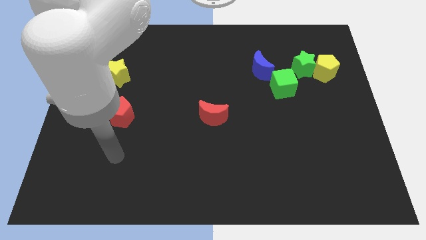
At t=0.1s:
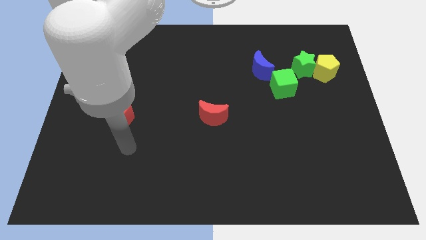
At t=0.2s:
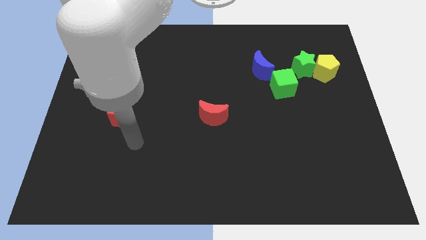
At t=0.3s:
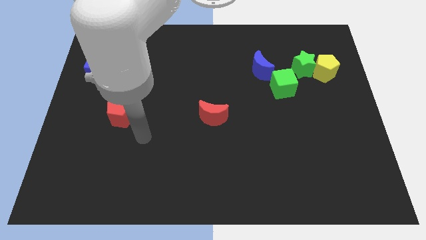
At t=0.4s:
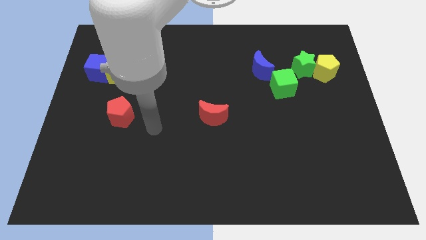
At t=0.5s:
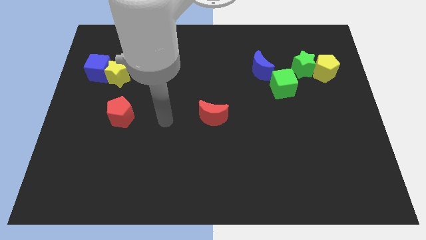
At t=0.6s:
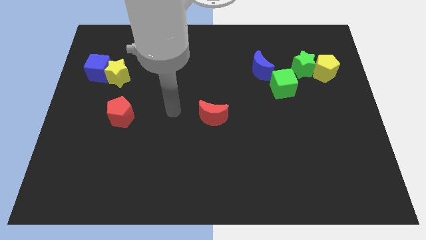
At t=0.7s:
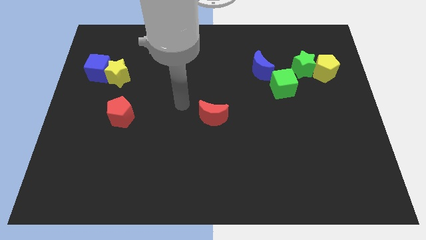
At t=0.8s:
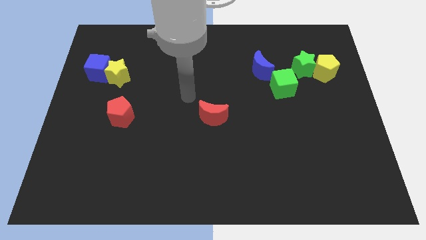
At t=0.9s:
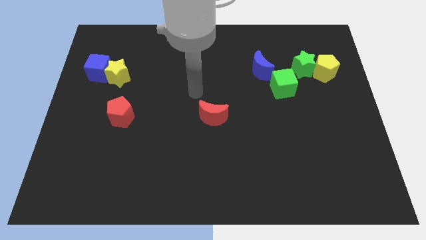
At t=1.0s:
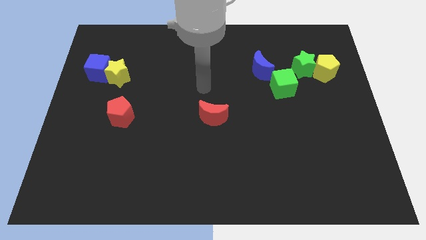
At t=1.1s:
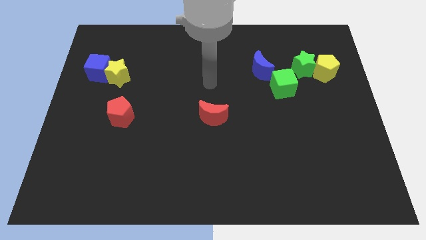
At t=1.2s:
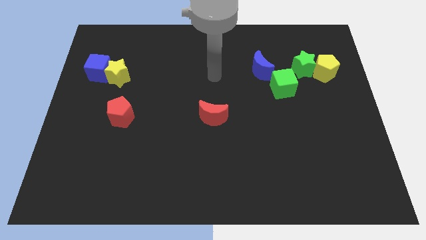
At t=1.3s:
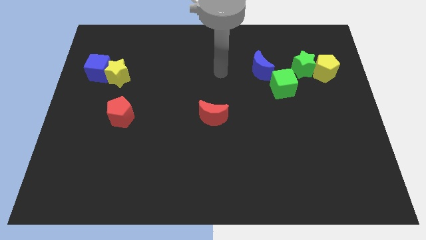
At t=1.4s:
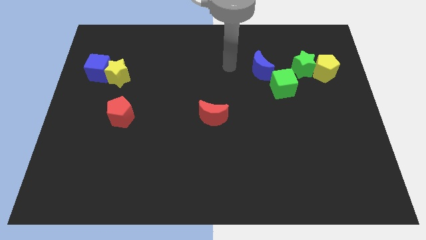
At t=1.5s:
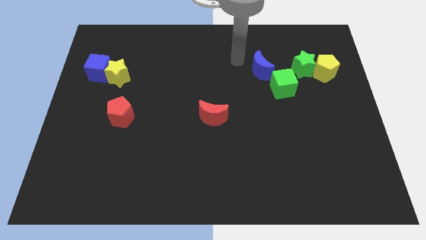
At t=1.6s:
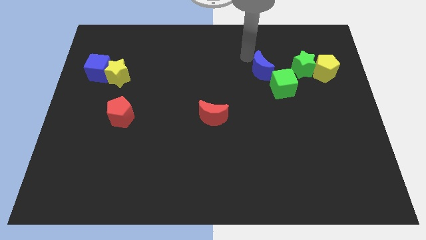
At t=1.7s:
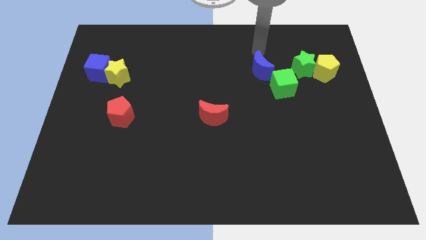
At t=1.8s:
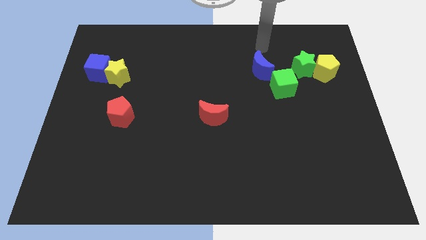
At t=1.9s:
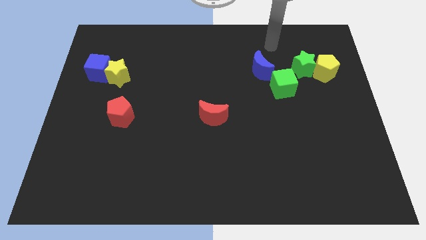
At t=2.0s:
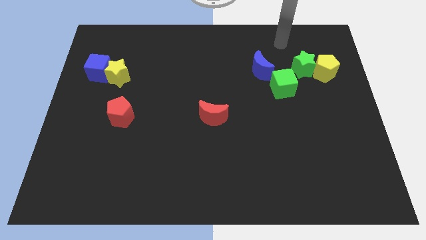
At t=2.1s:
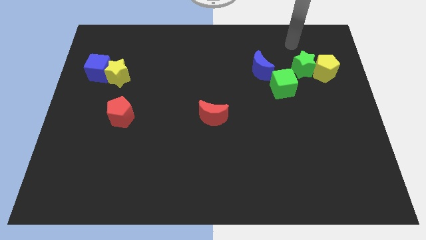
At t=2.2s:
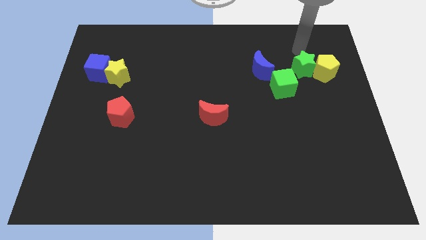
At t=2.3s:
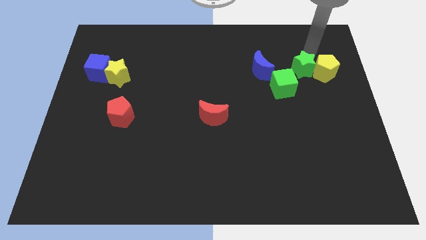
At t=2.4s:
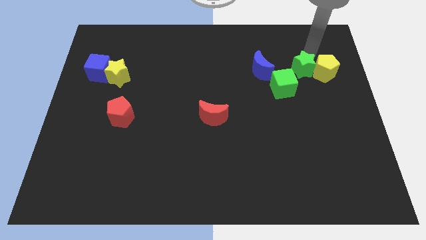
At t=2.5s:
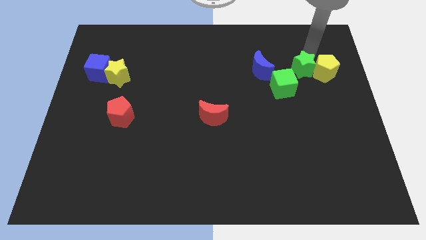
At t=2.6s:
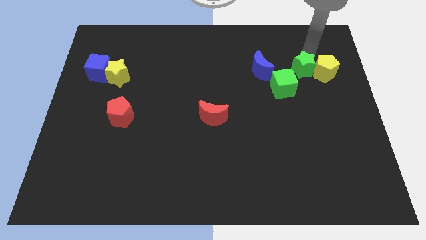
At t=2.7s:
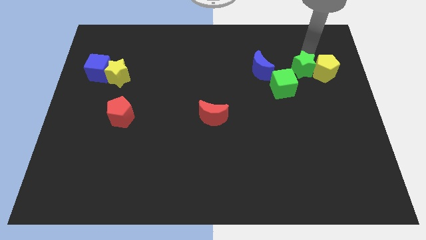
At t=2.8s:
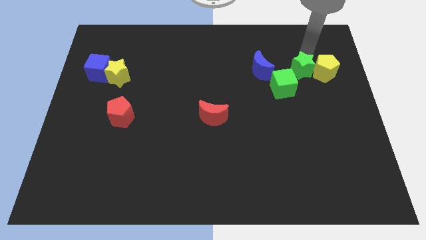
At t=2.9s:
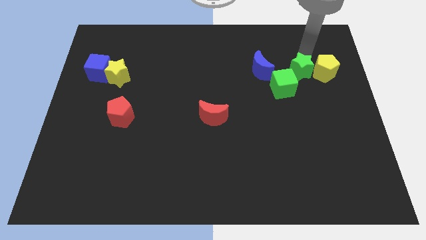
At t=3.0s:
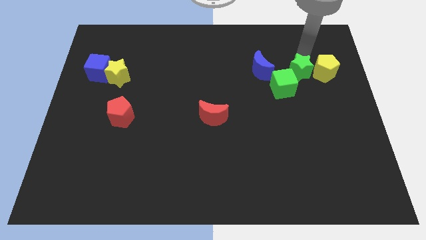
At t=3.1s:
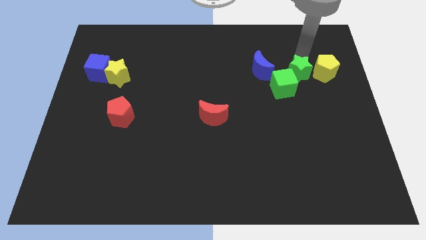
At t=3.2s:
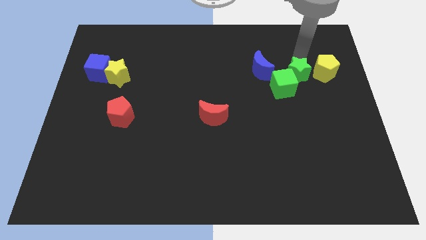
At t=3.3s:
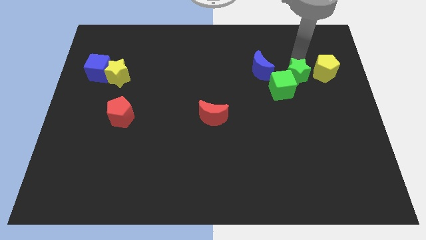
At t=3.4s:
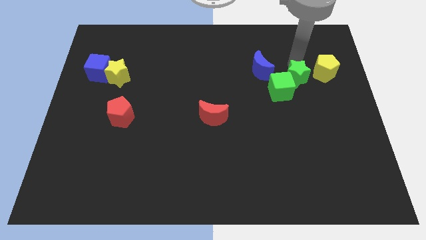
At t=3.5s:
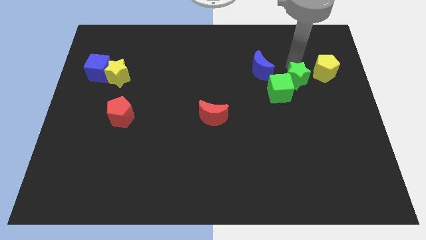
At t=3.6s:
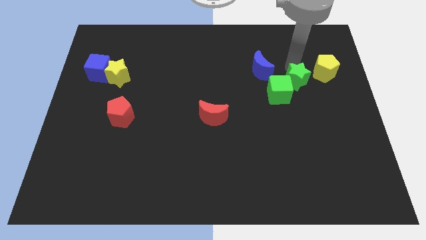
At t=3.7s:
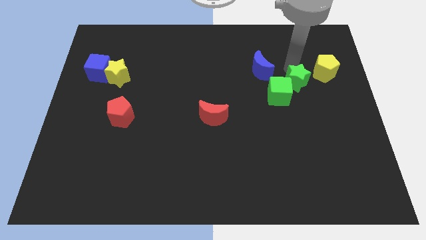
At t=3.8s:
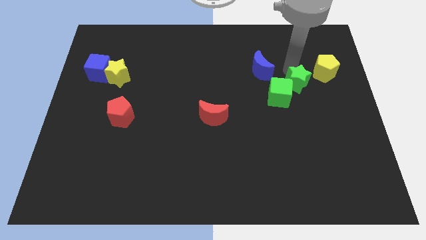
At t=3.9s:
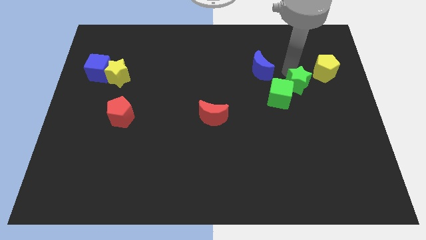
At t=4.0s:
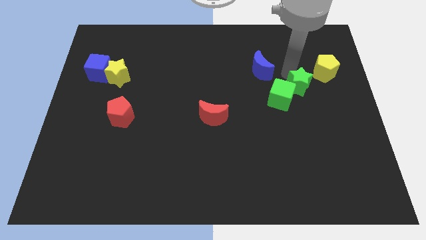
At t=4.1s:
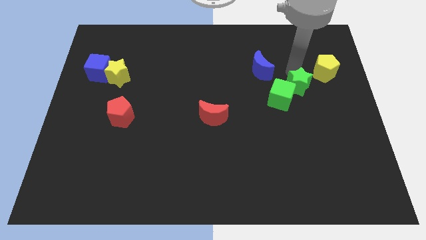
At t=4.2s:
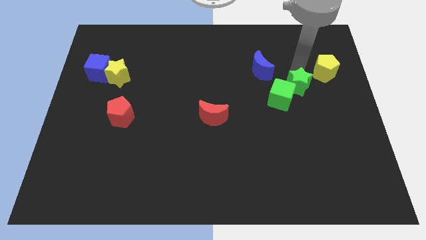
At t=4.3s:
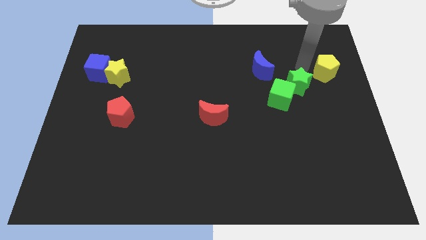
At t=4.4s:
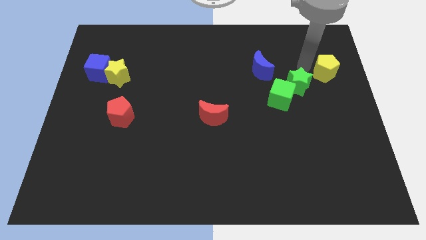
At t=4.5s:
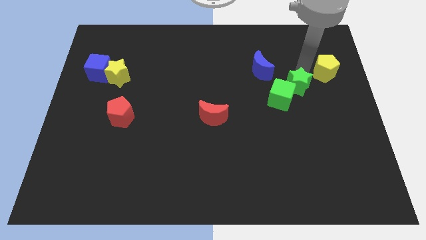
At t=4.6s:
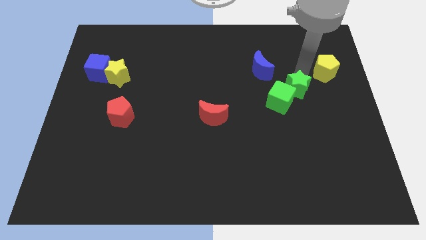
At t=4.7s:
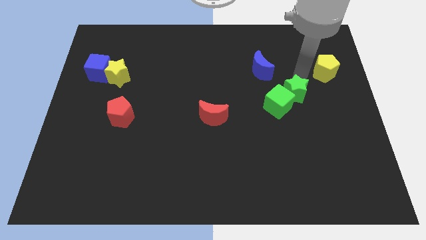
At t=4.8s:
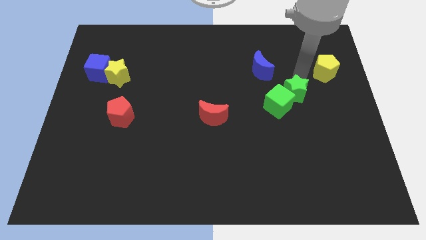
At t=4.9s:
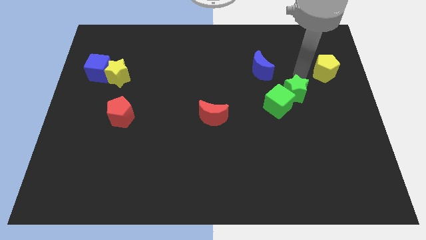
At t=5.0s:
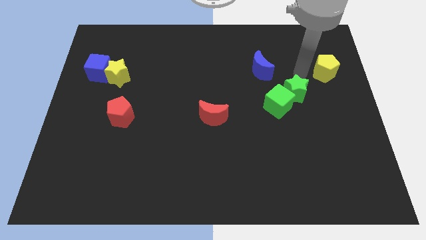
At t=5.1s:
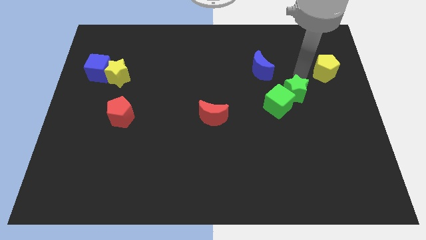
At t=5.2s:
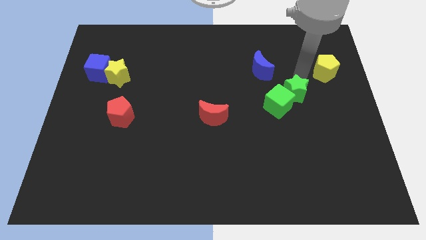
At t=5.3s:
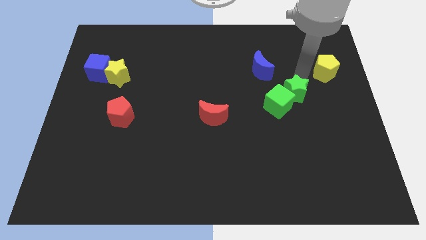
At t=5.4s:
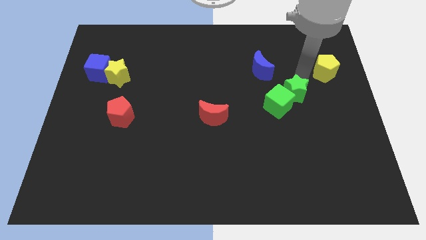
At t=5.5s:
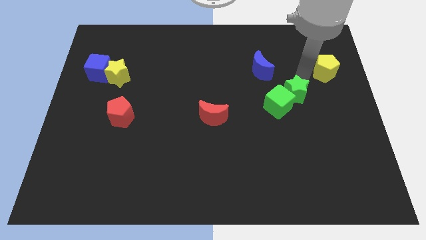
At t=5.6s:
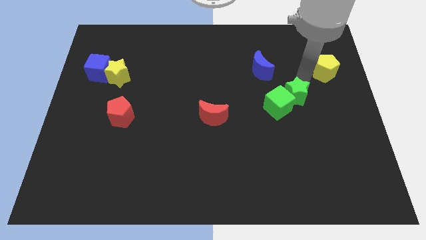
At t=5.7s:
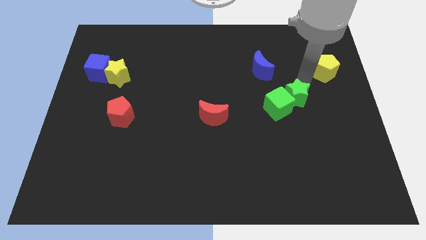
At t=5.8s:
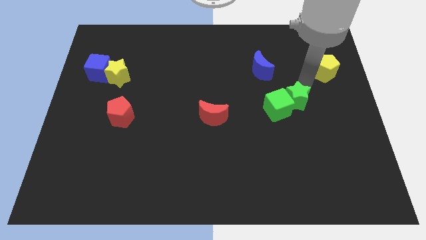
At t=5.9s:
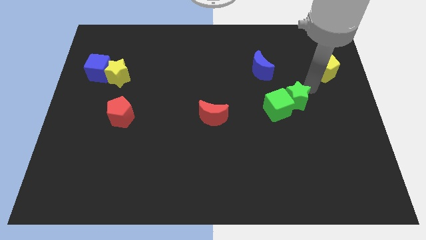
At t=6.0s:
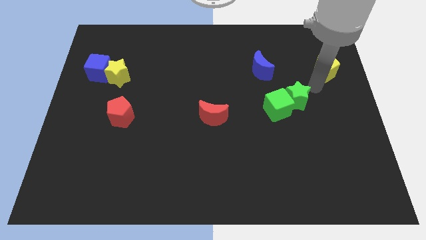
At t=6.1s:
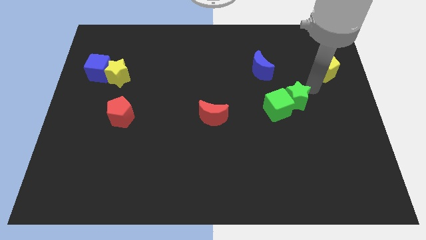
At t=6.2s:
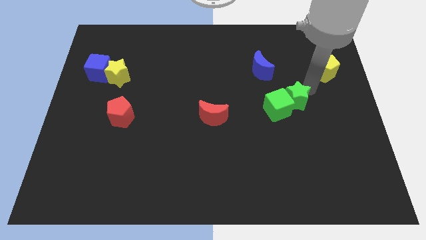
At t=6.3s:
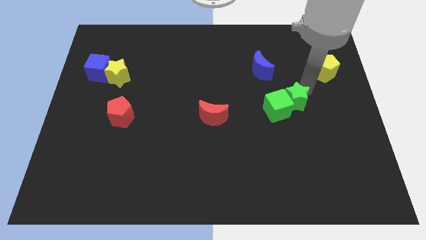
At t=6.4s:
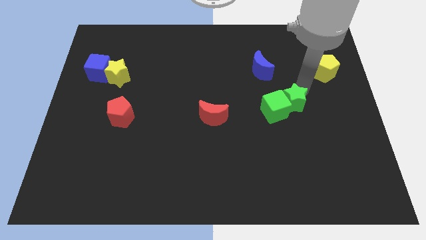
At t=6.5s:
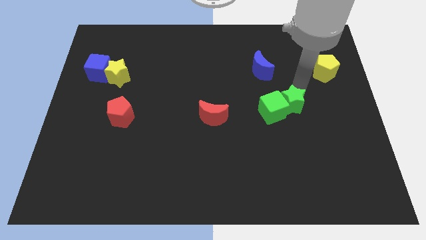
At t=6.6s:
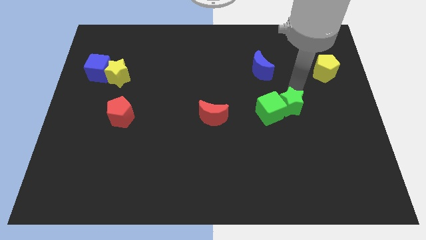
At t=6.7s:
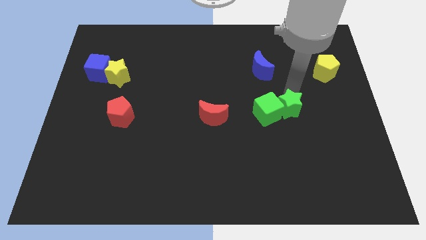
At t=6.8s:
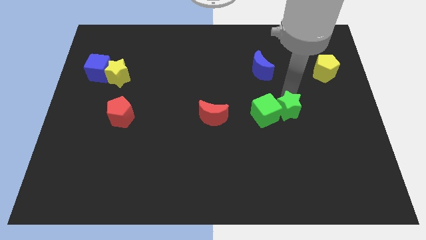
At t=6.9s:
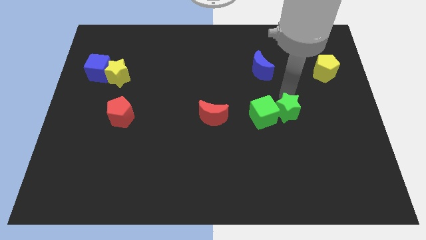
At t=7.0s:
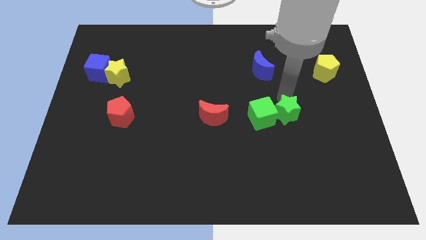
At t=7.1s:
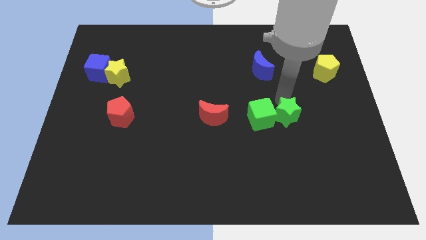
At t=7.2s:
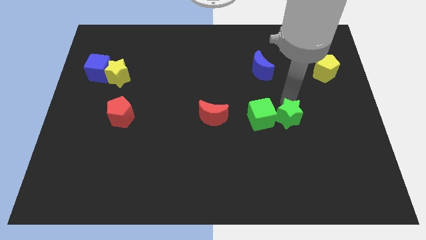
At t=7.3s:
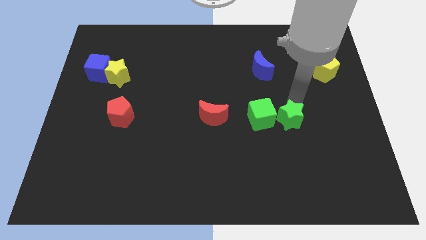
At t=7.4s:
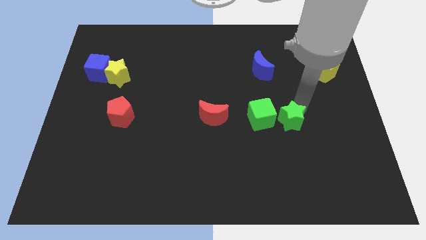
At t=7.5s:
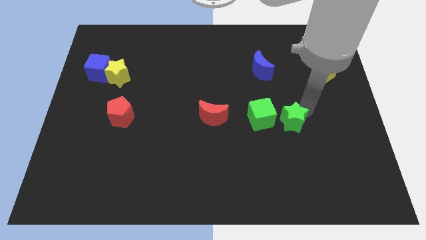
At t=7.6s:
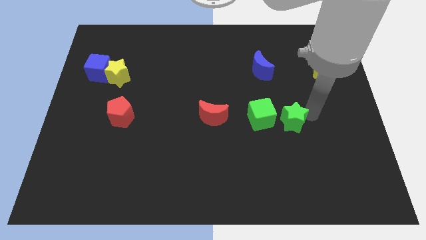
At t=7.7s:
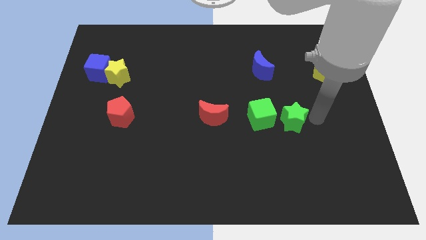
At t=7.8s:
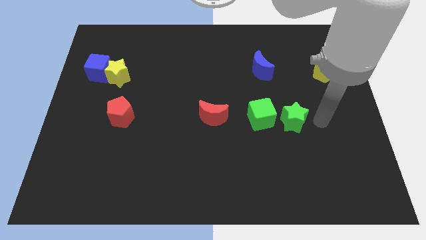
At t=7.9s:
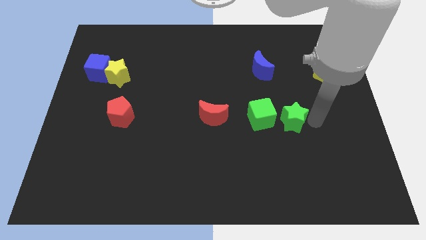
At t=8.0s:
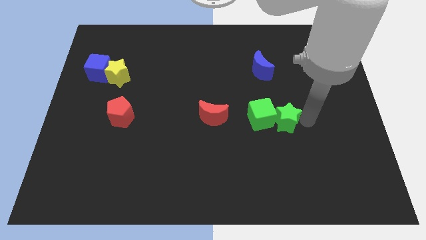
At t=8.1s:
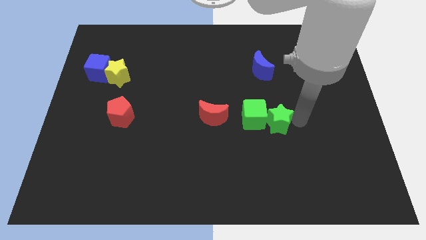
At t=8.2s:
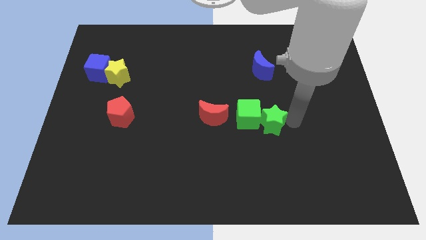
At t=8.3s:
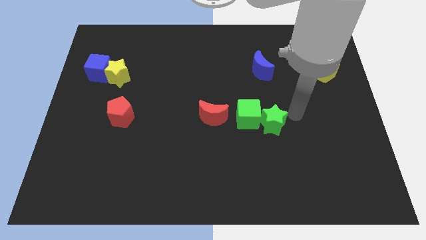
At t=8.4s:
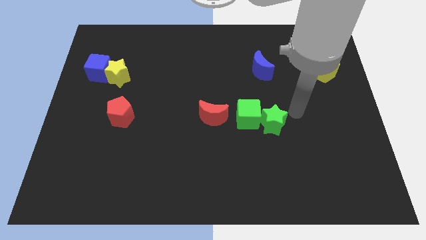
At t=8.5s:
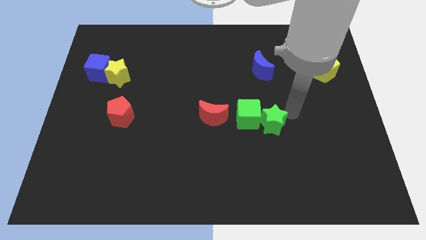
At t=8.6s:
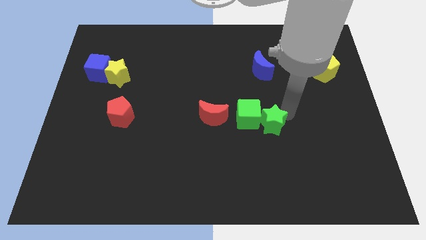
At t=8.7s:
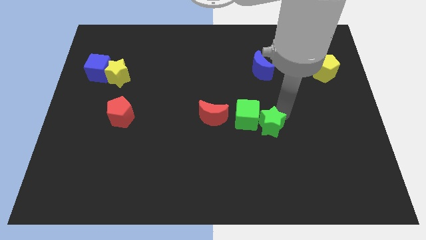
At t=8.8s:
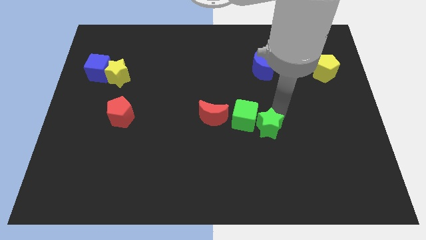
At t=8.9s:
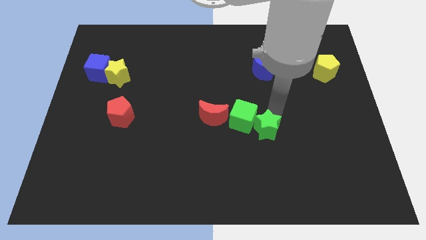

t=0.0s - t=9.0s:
push the green star downwards and left diagonally
